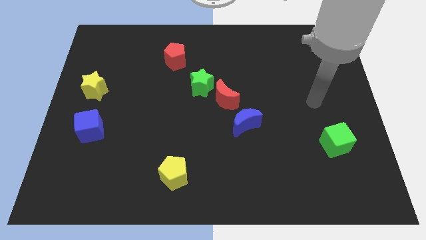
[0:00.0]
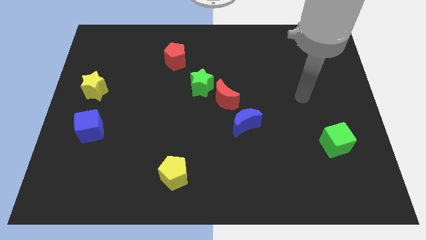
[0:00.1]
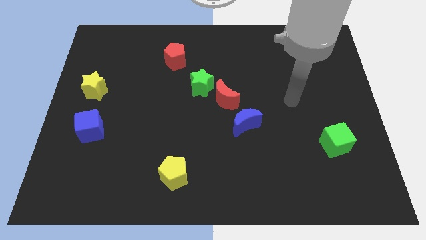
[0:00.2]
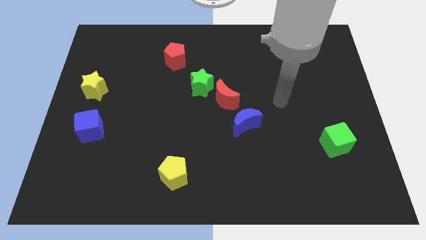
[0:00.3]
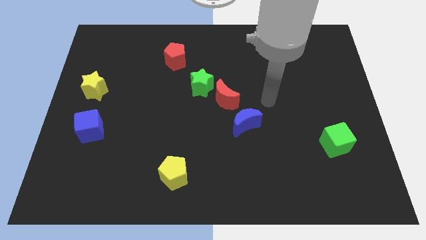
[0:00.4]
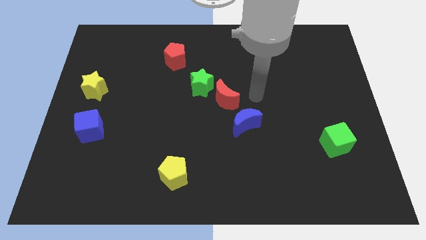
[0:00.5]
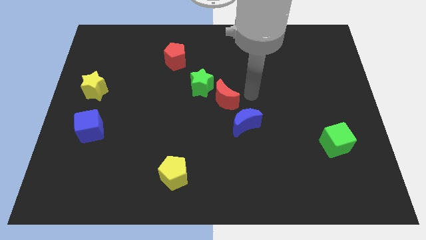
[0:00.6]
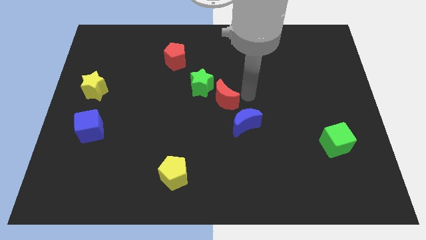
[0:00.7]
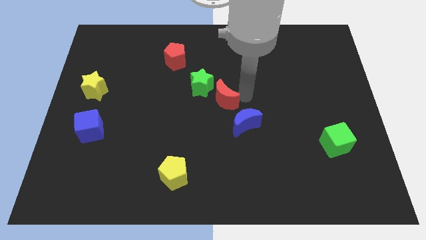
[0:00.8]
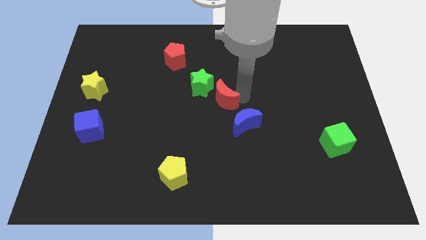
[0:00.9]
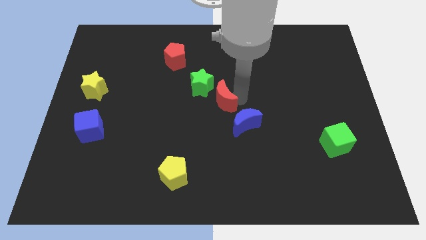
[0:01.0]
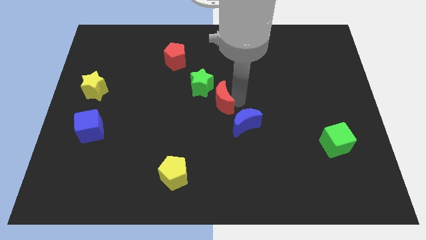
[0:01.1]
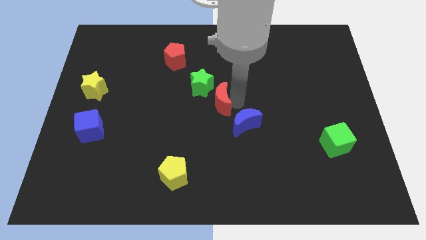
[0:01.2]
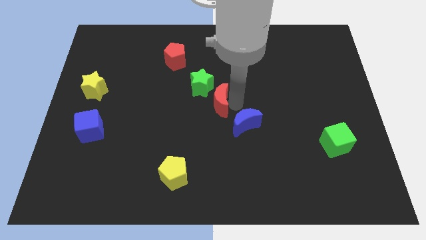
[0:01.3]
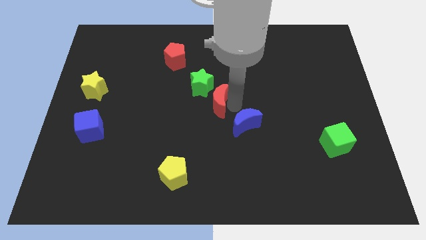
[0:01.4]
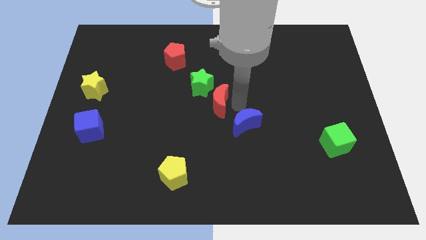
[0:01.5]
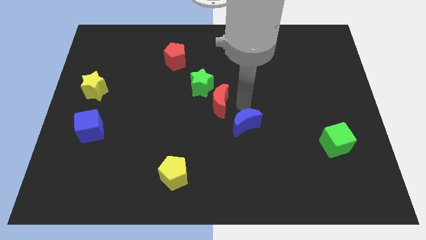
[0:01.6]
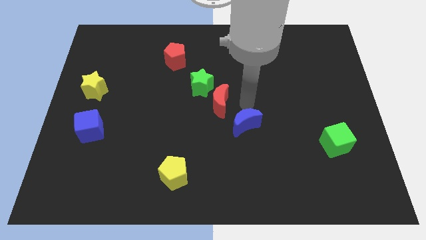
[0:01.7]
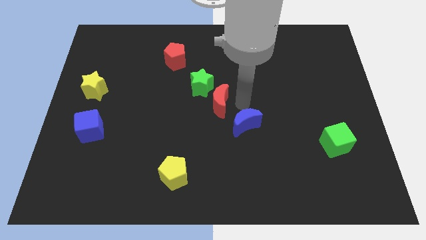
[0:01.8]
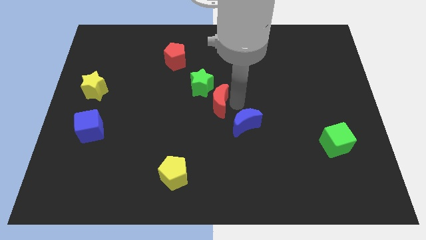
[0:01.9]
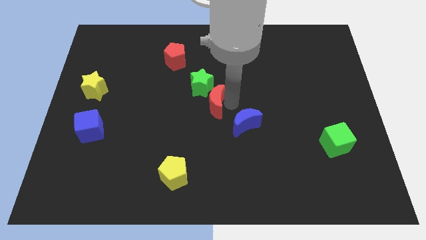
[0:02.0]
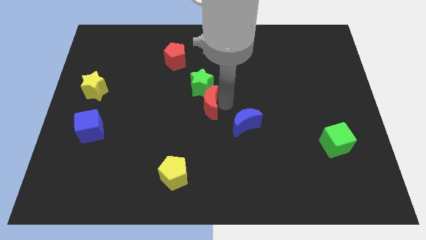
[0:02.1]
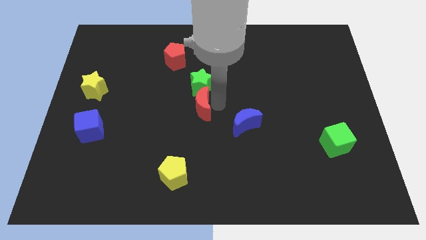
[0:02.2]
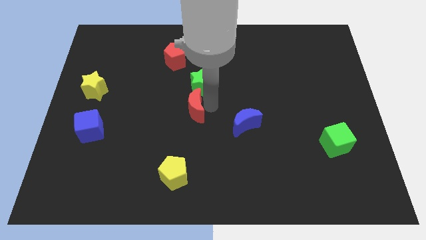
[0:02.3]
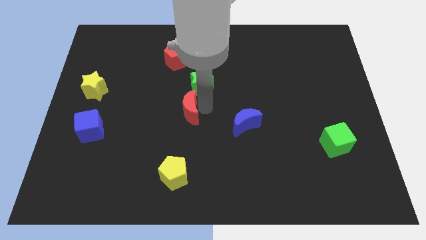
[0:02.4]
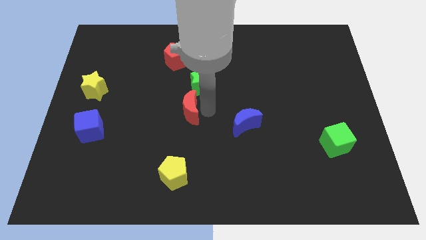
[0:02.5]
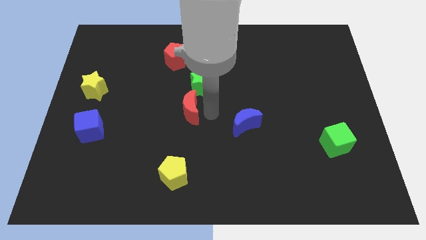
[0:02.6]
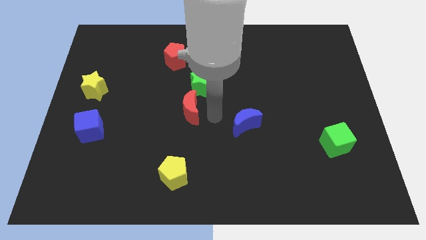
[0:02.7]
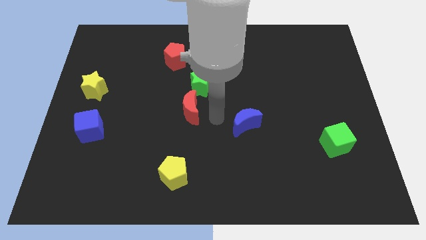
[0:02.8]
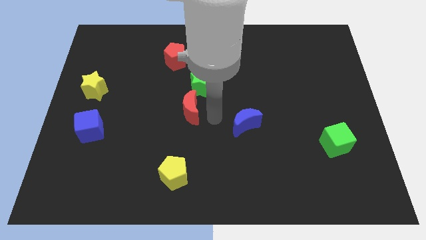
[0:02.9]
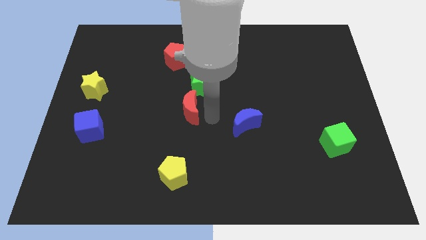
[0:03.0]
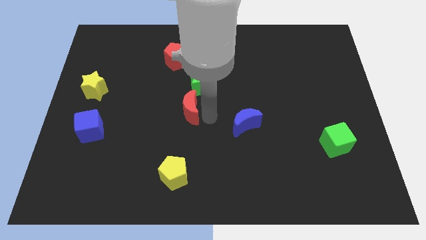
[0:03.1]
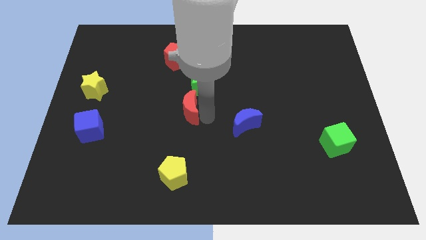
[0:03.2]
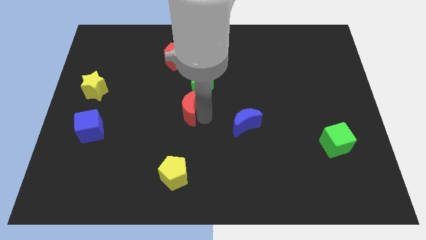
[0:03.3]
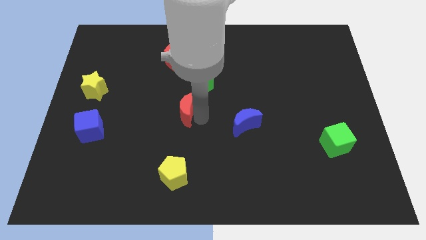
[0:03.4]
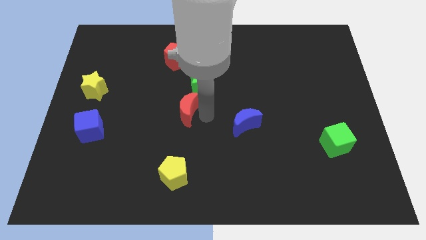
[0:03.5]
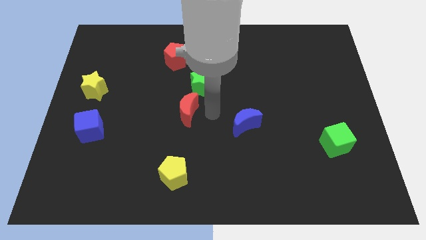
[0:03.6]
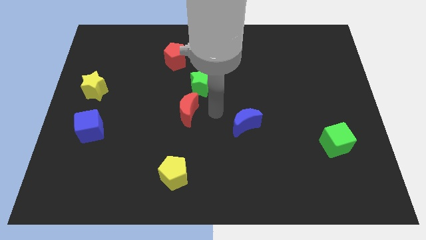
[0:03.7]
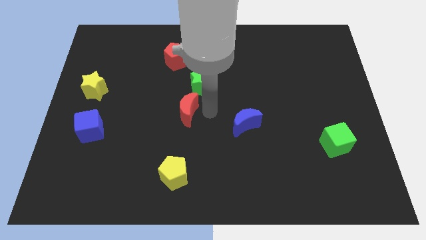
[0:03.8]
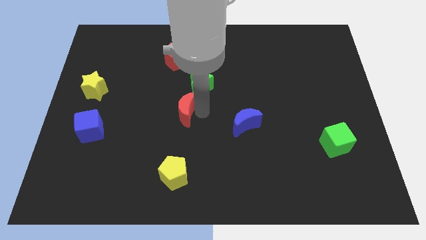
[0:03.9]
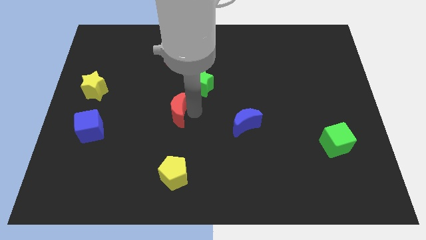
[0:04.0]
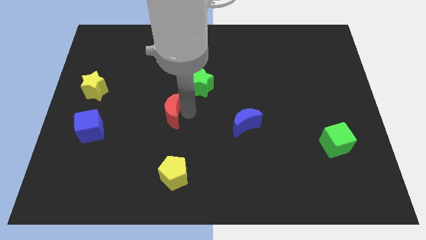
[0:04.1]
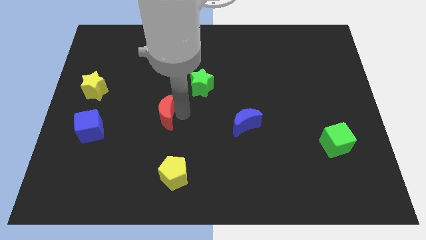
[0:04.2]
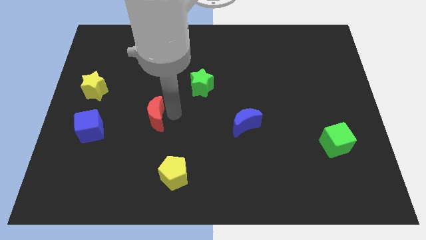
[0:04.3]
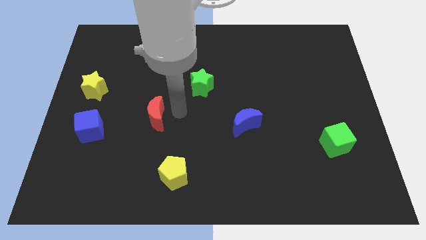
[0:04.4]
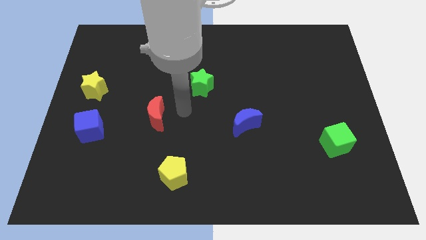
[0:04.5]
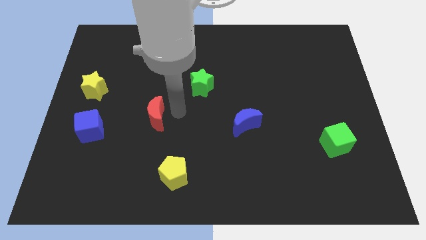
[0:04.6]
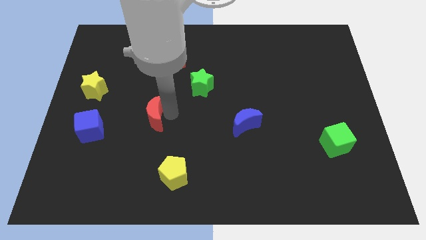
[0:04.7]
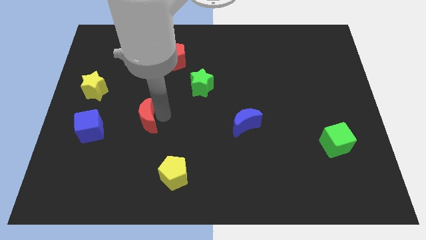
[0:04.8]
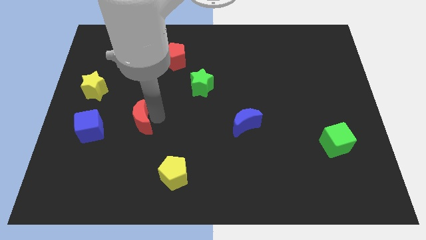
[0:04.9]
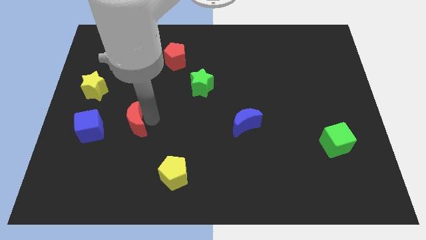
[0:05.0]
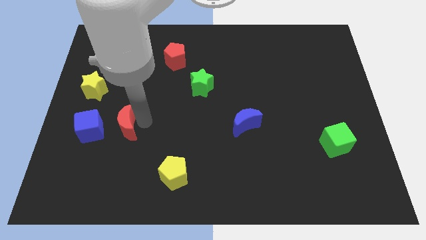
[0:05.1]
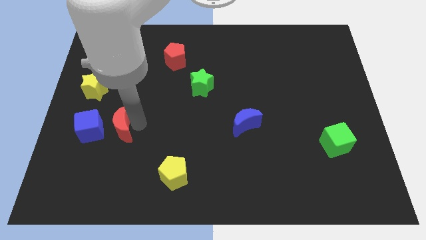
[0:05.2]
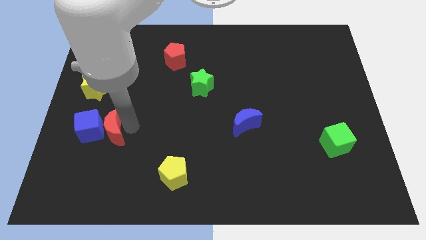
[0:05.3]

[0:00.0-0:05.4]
push the red moon towards the blue cube

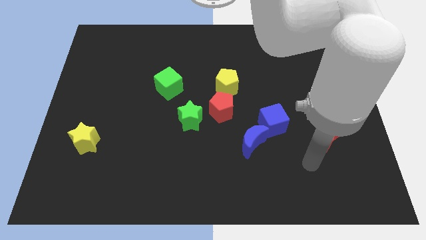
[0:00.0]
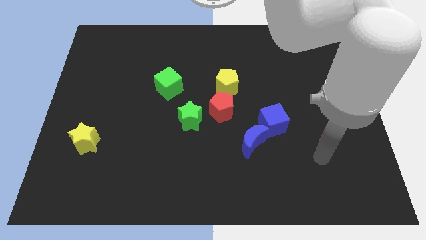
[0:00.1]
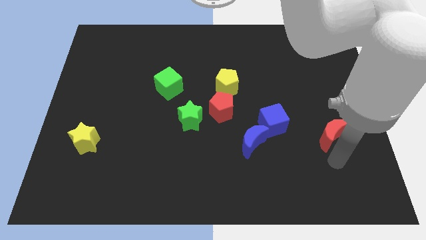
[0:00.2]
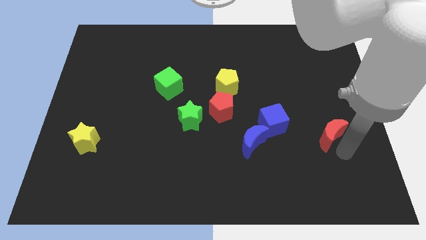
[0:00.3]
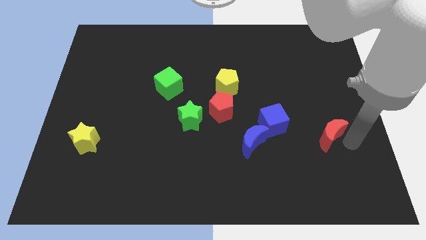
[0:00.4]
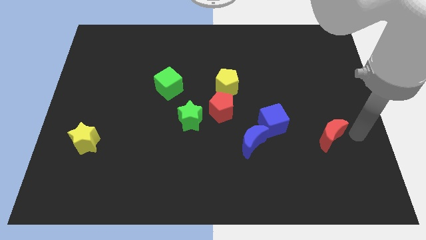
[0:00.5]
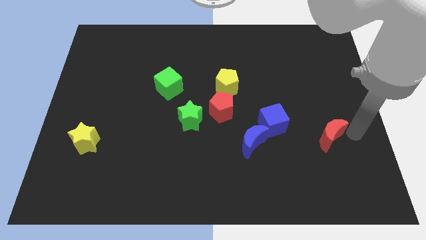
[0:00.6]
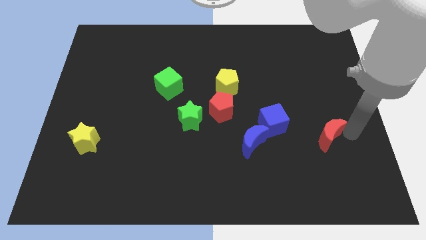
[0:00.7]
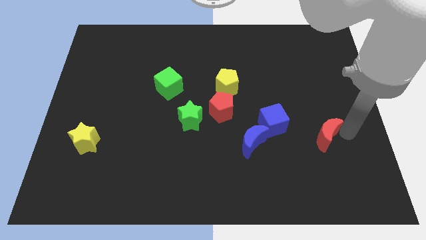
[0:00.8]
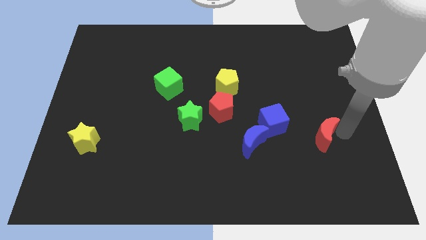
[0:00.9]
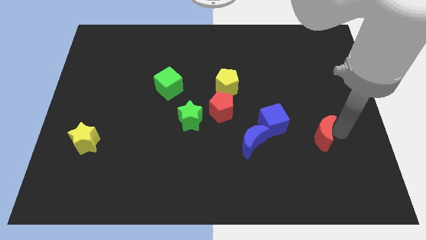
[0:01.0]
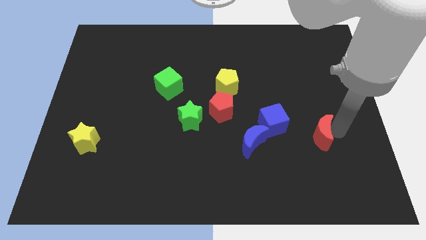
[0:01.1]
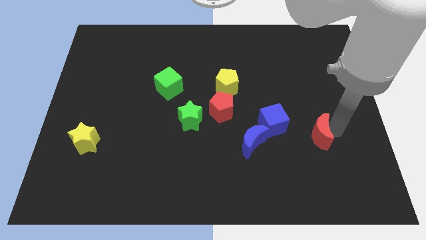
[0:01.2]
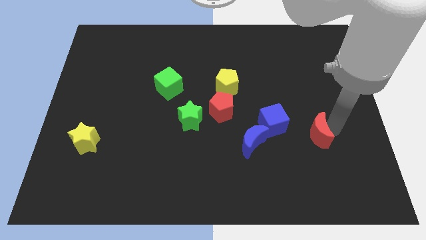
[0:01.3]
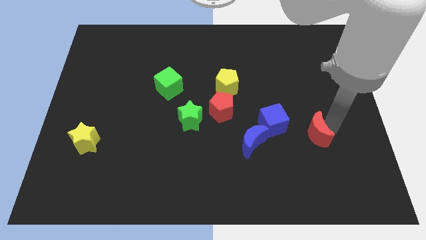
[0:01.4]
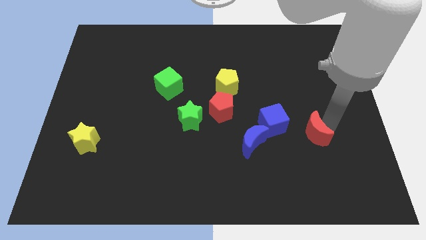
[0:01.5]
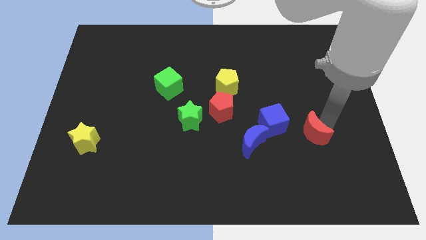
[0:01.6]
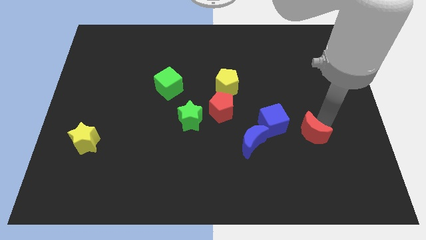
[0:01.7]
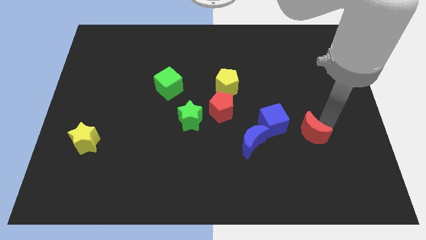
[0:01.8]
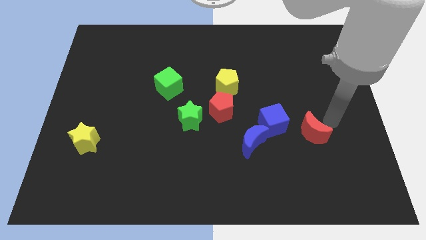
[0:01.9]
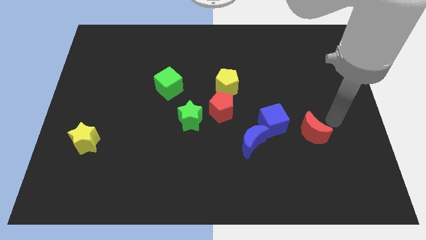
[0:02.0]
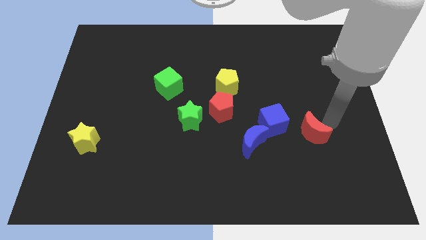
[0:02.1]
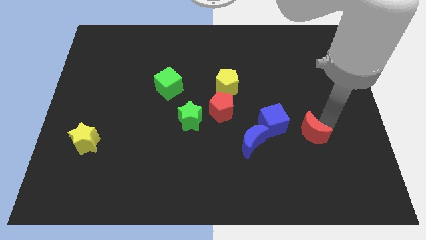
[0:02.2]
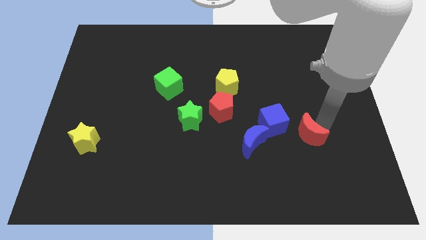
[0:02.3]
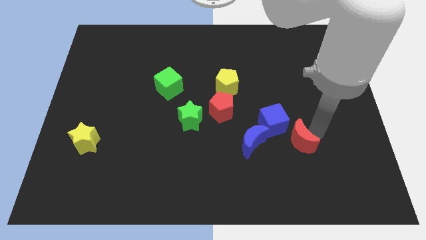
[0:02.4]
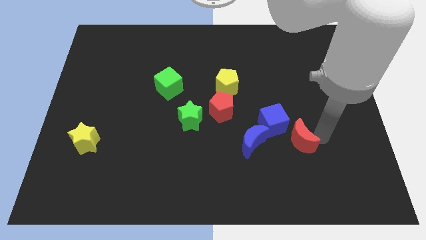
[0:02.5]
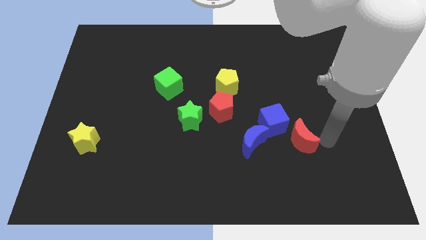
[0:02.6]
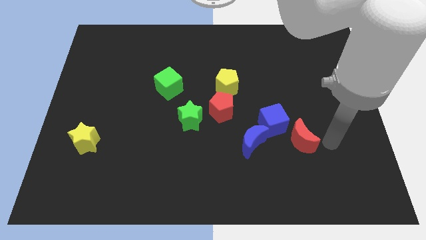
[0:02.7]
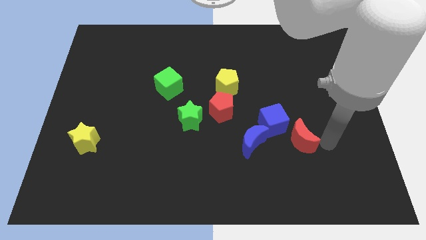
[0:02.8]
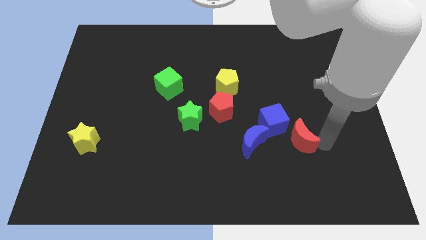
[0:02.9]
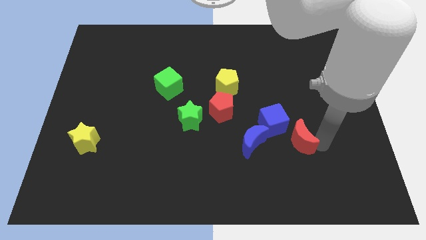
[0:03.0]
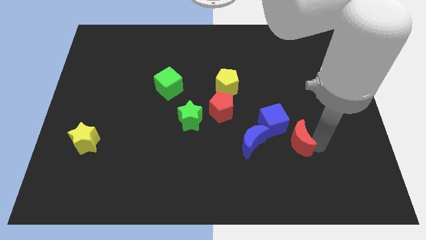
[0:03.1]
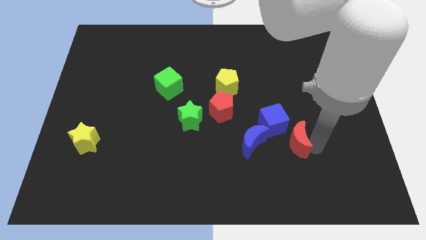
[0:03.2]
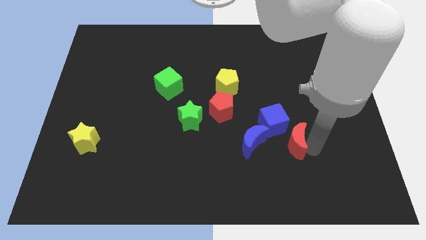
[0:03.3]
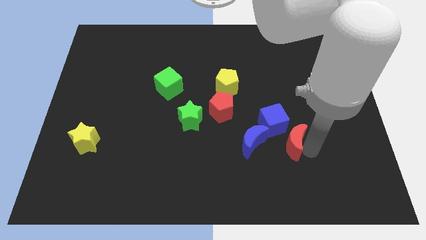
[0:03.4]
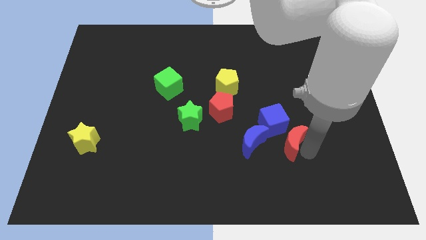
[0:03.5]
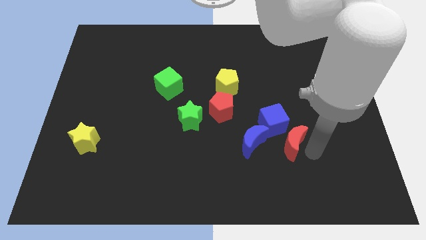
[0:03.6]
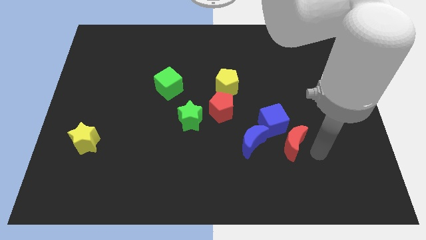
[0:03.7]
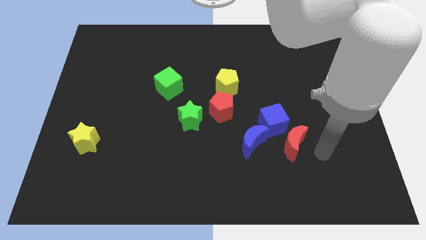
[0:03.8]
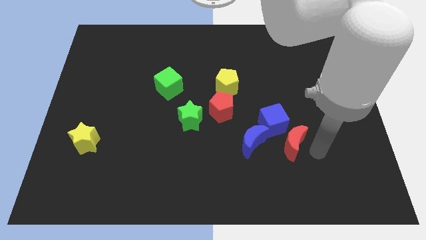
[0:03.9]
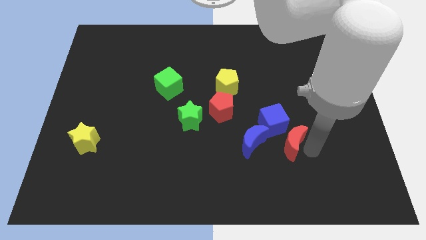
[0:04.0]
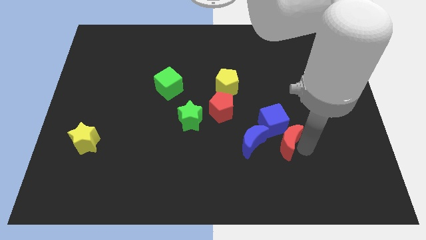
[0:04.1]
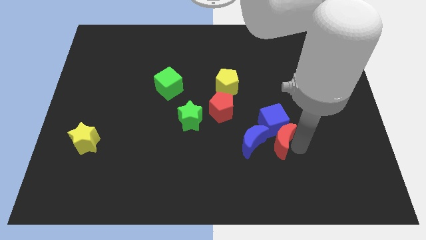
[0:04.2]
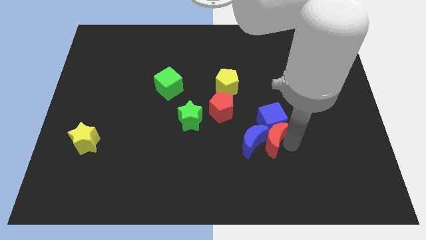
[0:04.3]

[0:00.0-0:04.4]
put the red moon next to the blue moon
